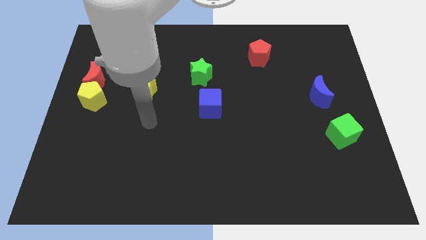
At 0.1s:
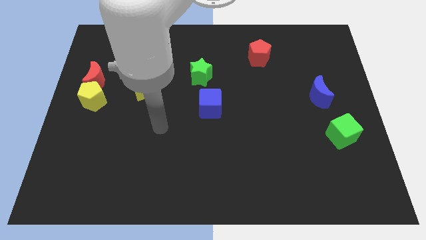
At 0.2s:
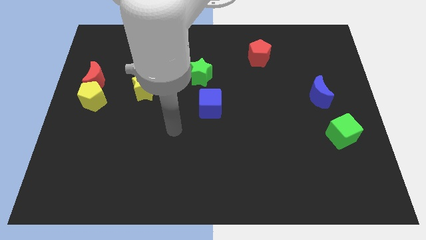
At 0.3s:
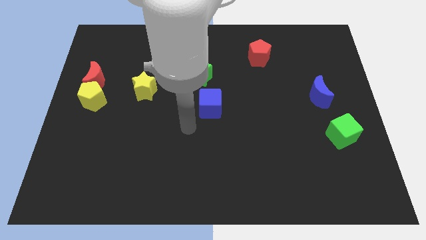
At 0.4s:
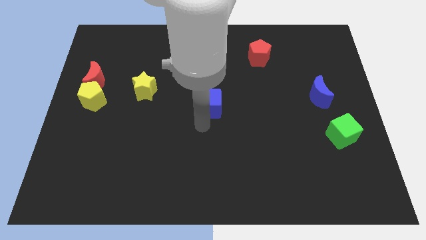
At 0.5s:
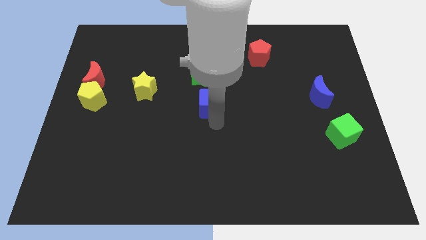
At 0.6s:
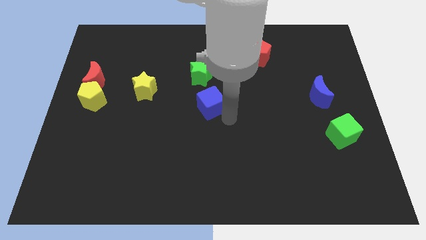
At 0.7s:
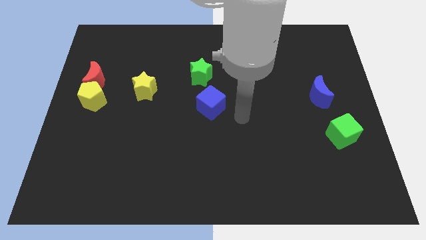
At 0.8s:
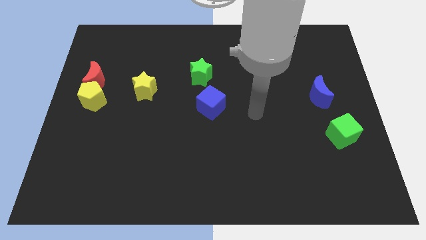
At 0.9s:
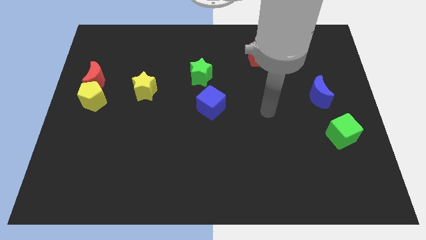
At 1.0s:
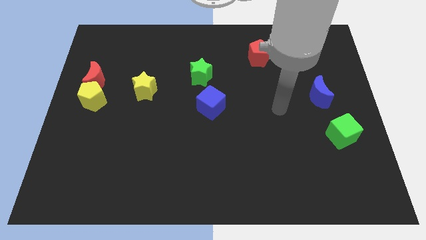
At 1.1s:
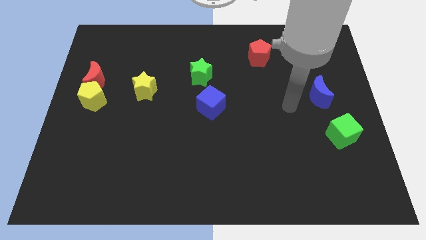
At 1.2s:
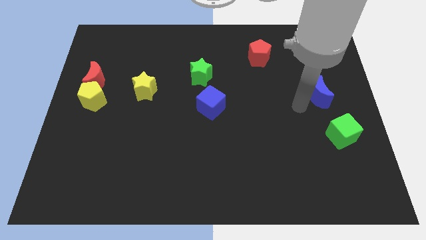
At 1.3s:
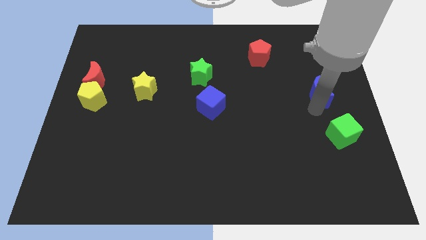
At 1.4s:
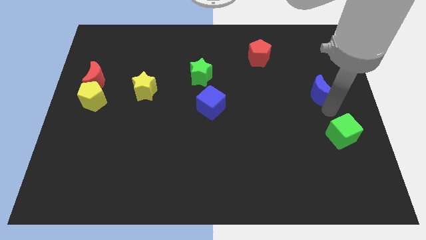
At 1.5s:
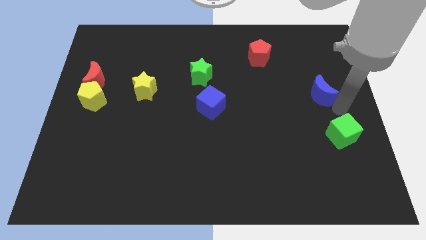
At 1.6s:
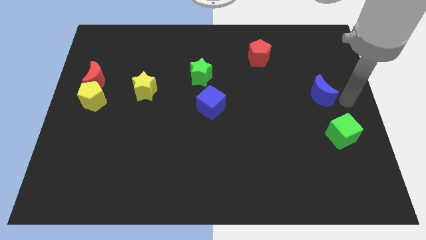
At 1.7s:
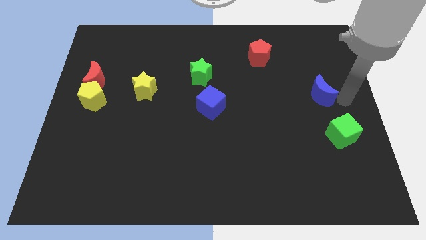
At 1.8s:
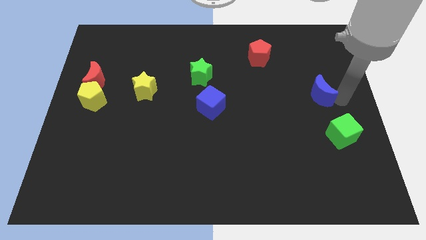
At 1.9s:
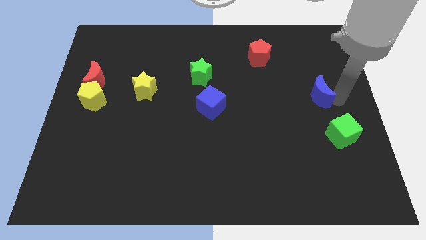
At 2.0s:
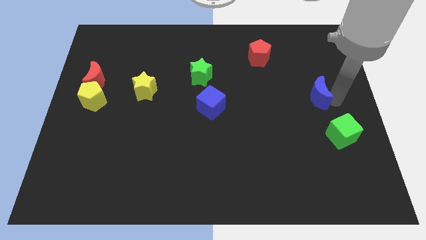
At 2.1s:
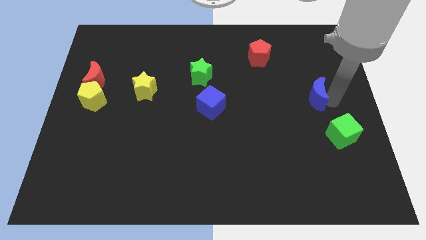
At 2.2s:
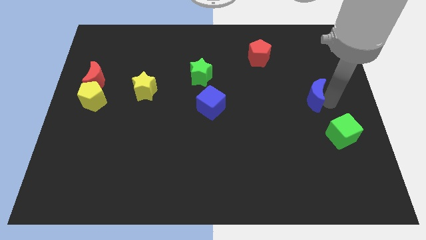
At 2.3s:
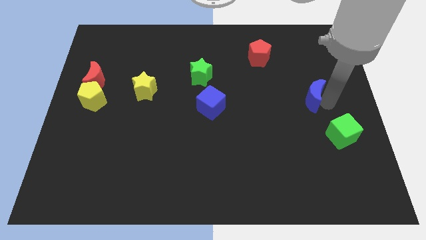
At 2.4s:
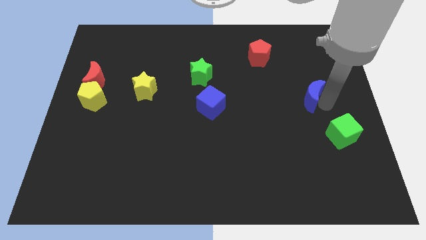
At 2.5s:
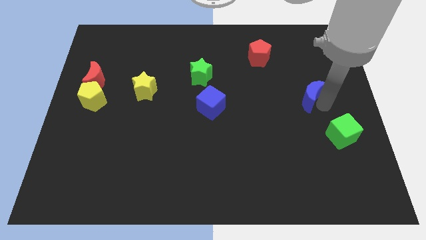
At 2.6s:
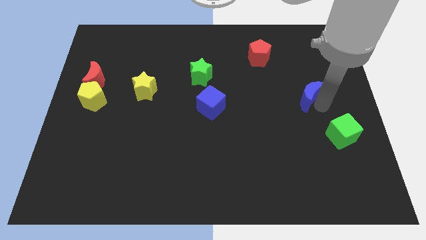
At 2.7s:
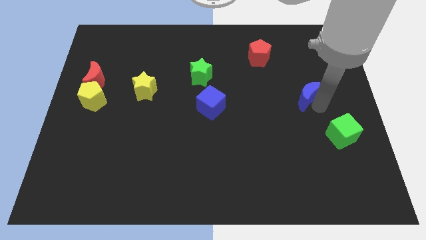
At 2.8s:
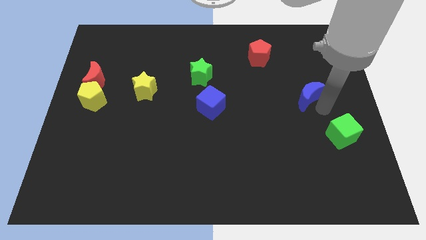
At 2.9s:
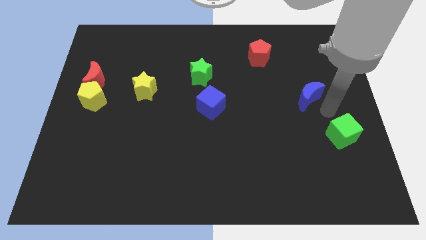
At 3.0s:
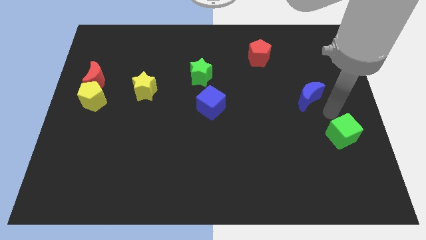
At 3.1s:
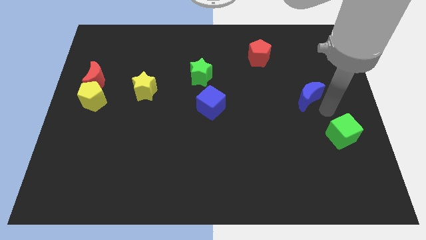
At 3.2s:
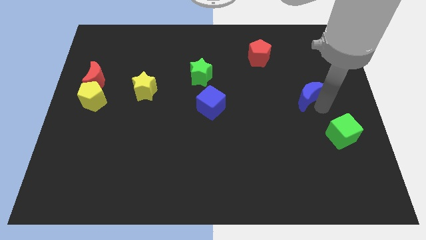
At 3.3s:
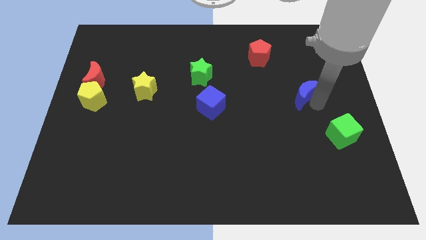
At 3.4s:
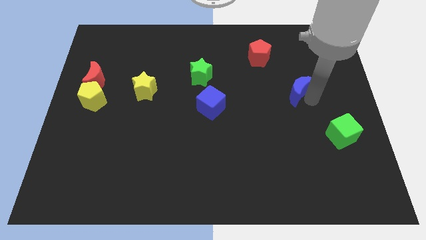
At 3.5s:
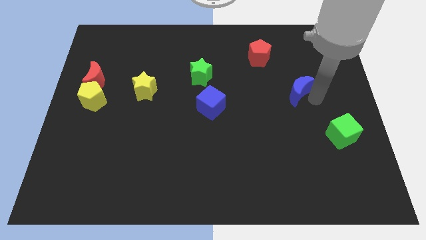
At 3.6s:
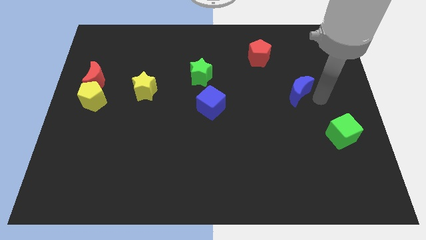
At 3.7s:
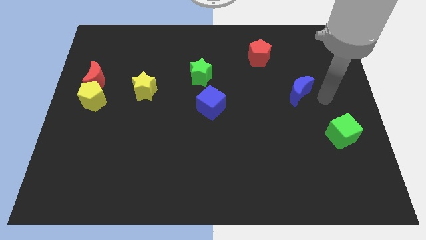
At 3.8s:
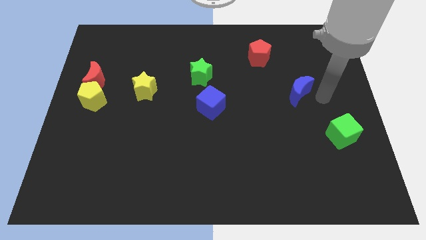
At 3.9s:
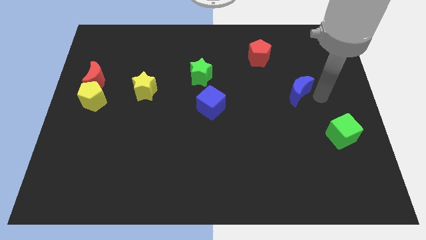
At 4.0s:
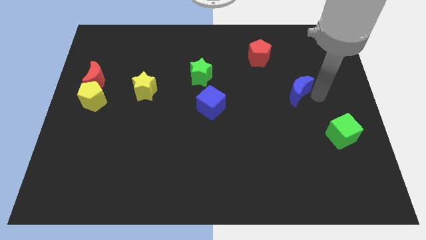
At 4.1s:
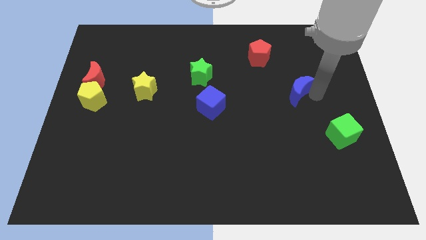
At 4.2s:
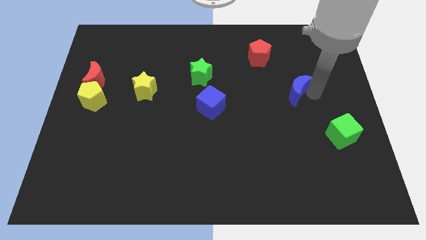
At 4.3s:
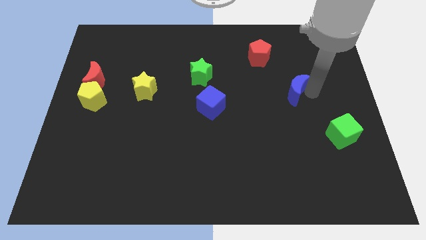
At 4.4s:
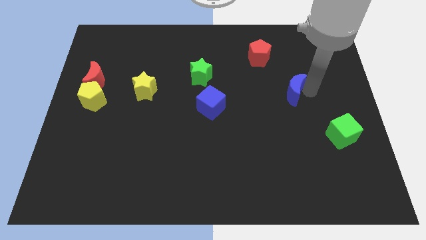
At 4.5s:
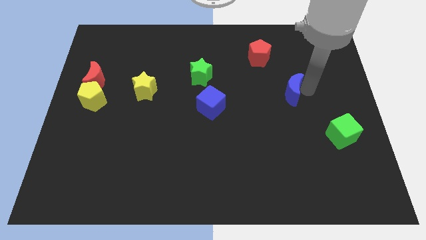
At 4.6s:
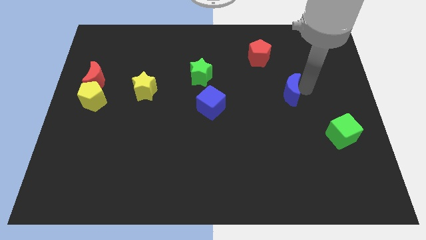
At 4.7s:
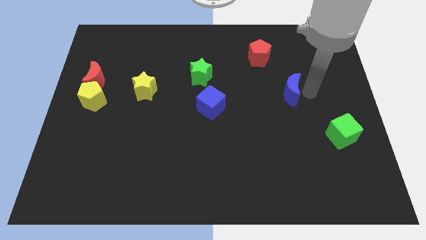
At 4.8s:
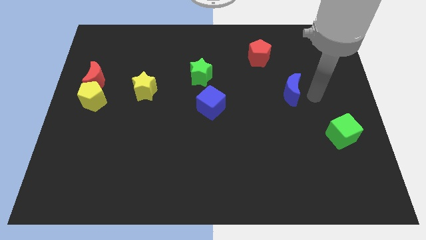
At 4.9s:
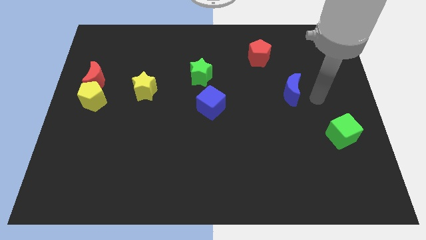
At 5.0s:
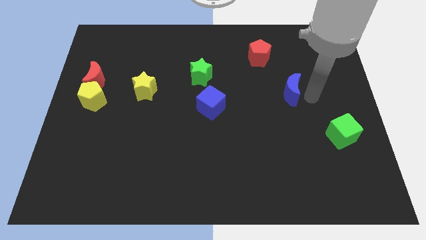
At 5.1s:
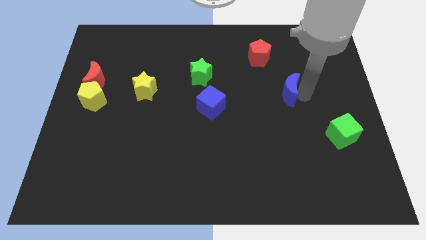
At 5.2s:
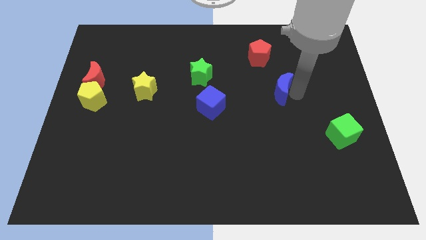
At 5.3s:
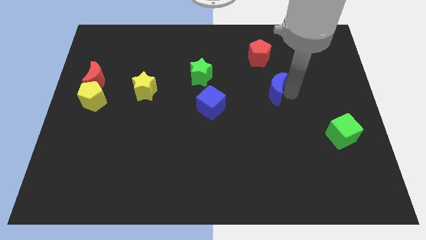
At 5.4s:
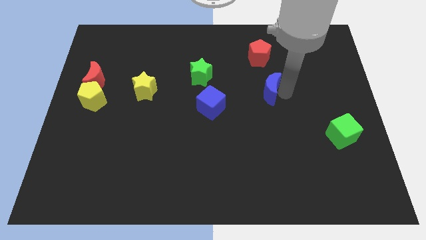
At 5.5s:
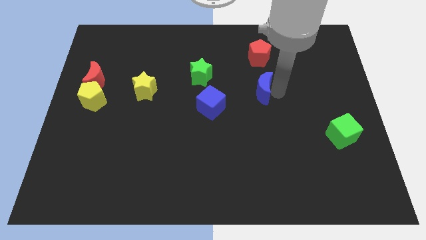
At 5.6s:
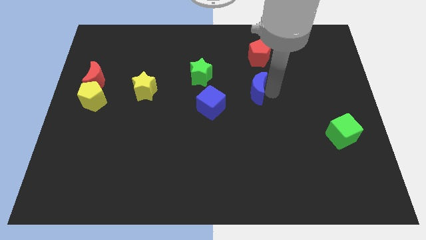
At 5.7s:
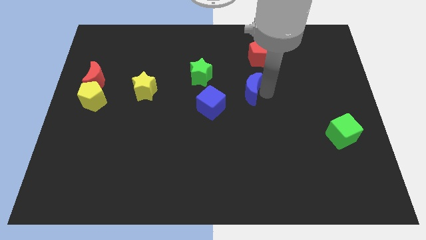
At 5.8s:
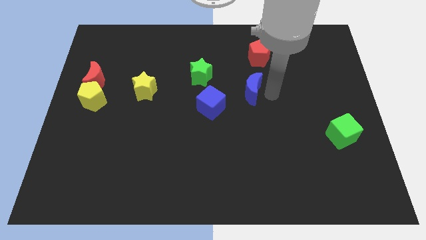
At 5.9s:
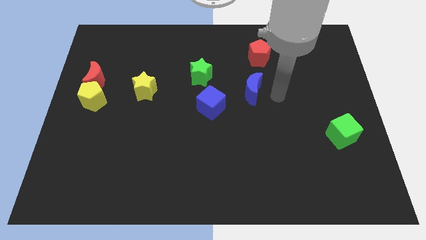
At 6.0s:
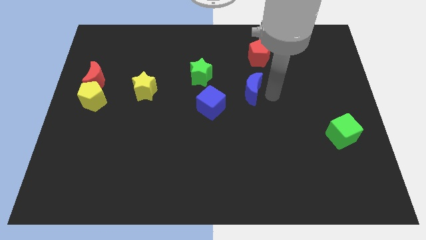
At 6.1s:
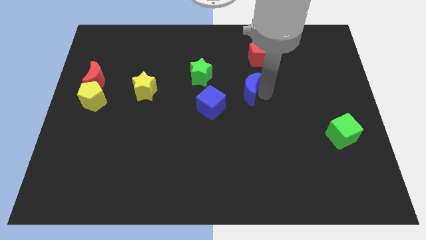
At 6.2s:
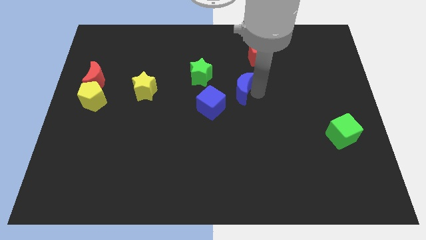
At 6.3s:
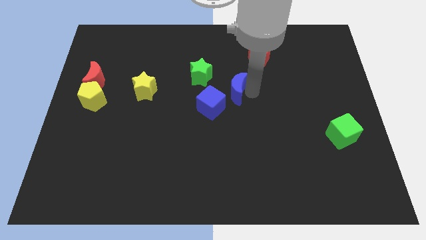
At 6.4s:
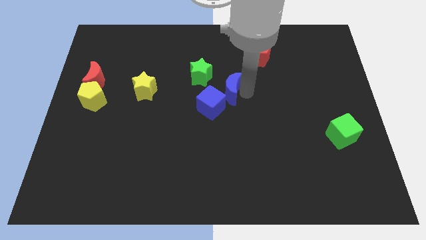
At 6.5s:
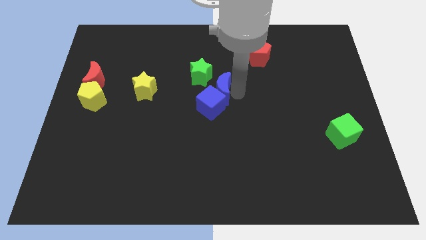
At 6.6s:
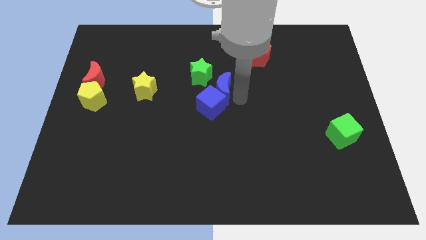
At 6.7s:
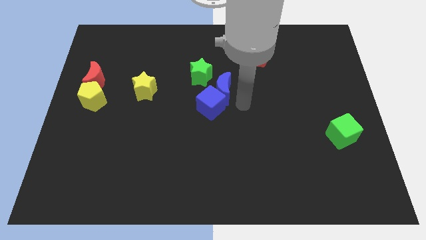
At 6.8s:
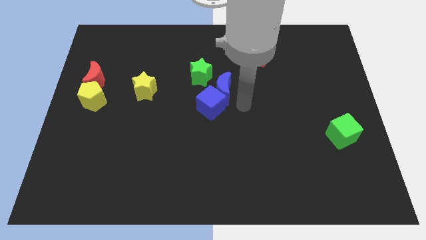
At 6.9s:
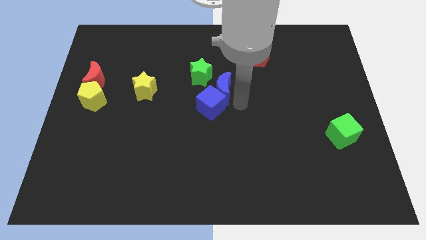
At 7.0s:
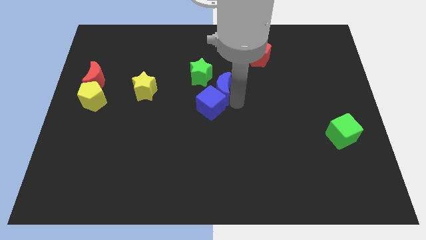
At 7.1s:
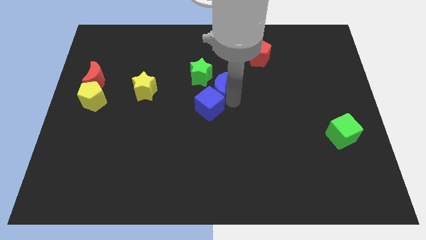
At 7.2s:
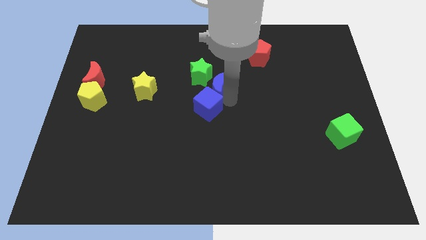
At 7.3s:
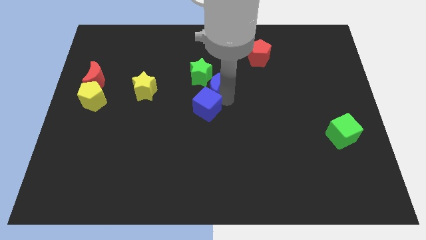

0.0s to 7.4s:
put the blue moon close to the green star

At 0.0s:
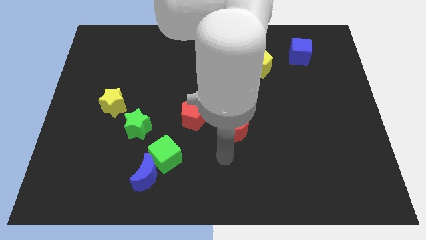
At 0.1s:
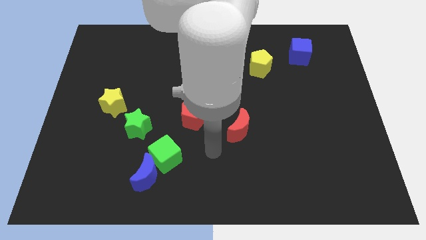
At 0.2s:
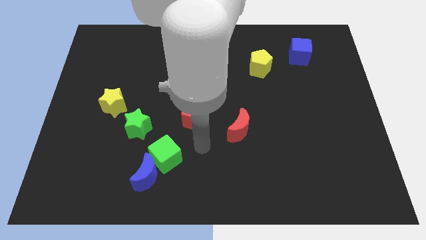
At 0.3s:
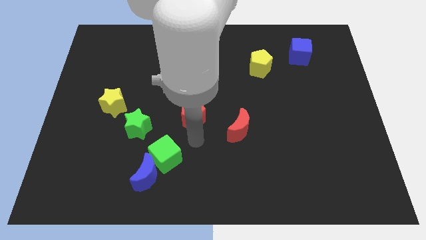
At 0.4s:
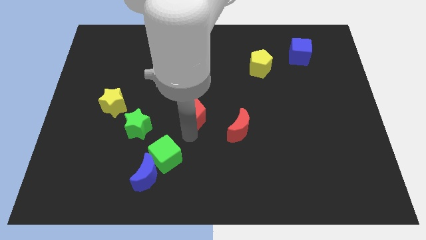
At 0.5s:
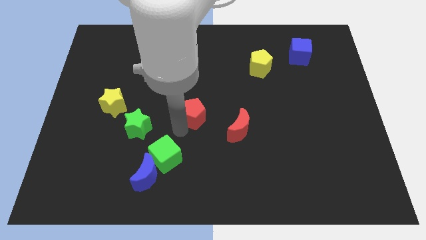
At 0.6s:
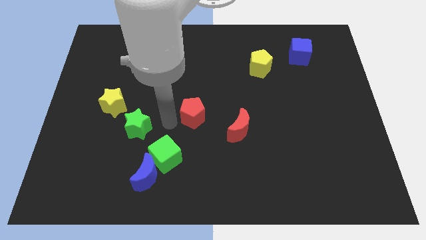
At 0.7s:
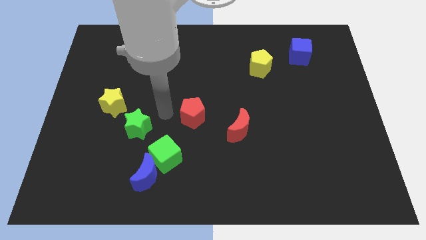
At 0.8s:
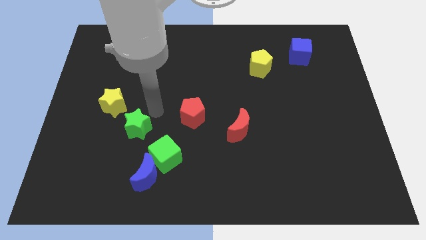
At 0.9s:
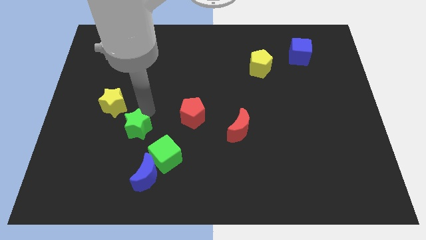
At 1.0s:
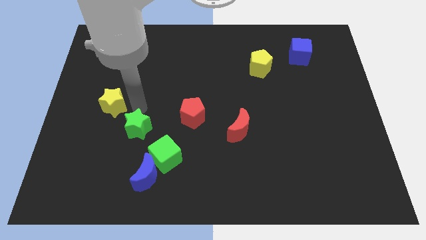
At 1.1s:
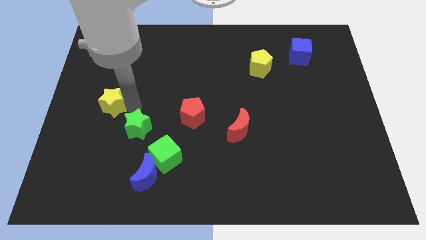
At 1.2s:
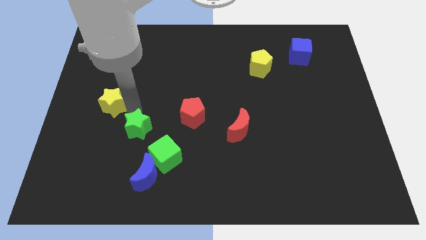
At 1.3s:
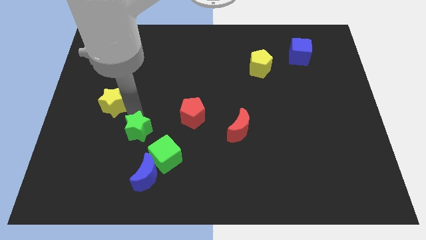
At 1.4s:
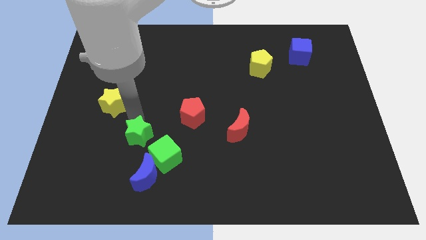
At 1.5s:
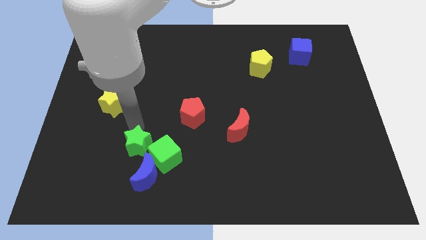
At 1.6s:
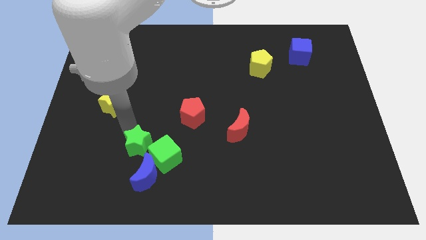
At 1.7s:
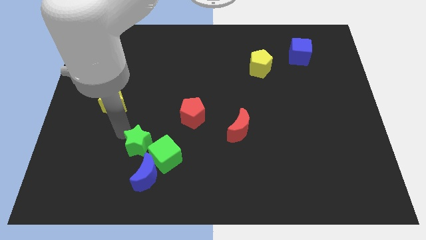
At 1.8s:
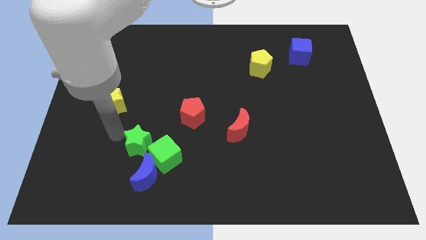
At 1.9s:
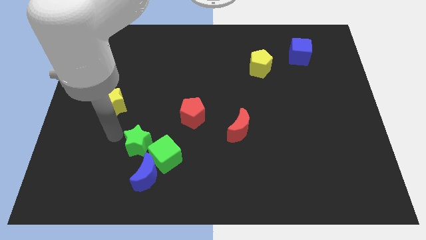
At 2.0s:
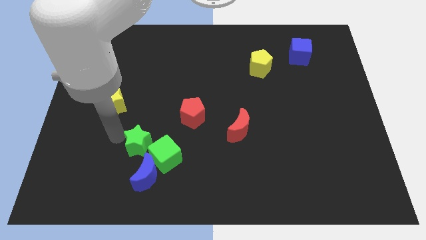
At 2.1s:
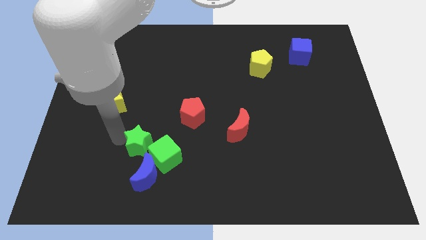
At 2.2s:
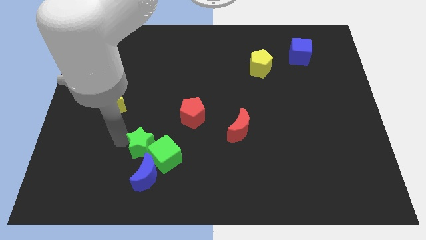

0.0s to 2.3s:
put the green star to the green cube
